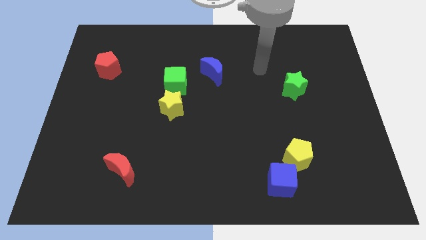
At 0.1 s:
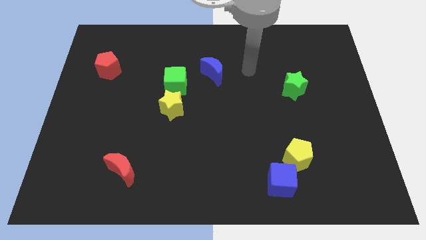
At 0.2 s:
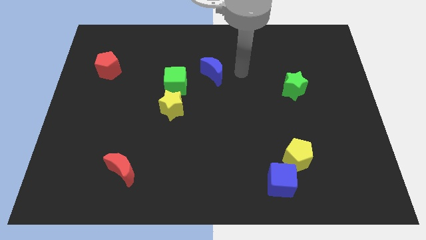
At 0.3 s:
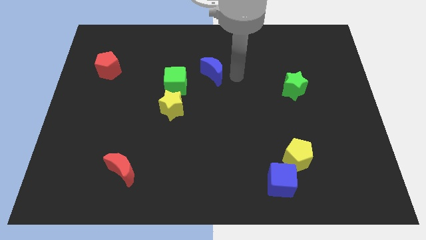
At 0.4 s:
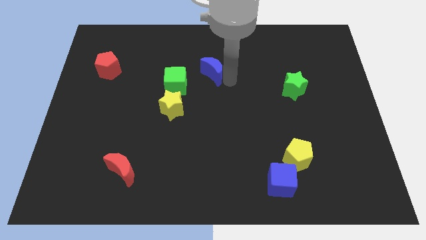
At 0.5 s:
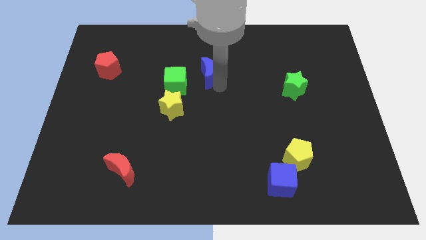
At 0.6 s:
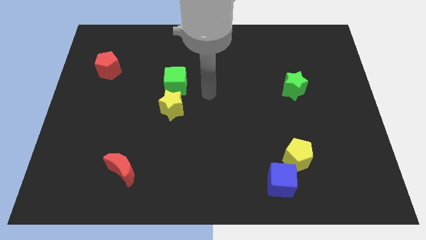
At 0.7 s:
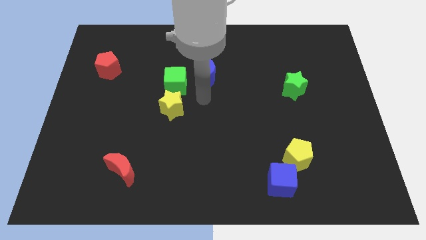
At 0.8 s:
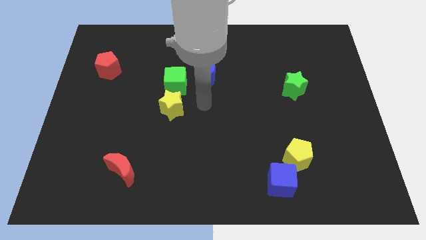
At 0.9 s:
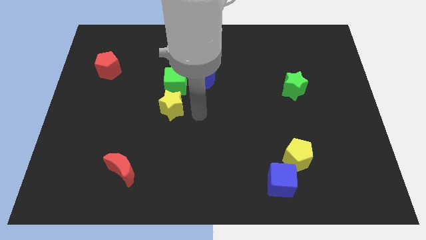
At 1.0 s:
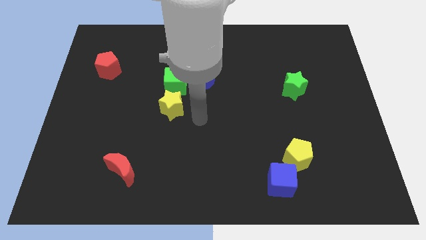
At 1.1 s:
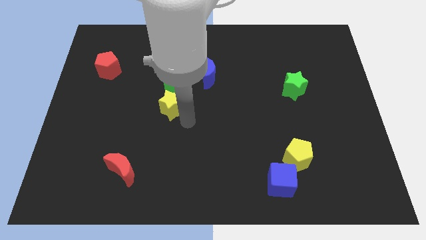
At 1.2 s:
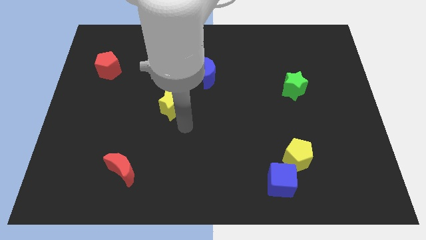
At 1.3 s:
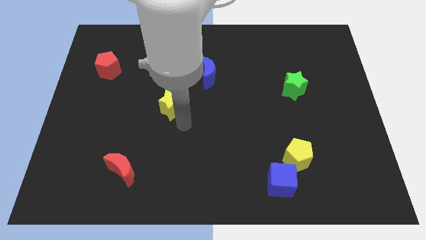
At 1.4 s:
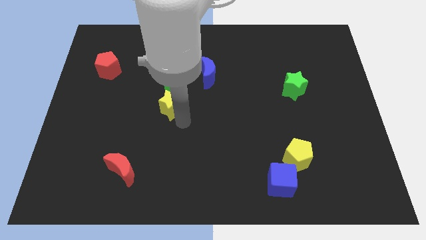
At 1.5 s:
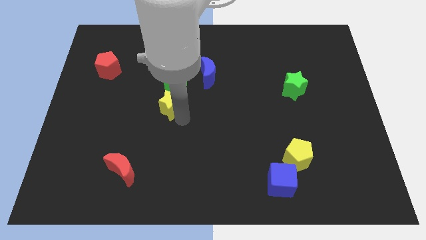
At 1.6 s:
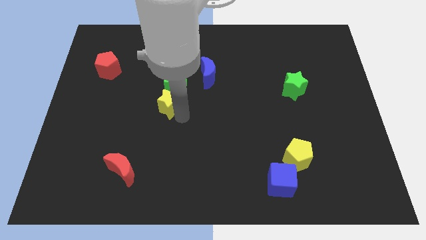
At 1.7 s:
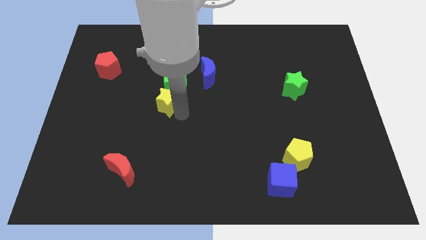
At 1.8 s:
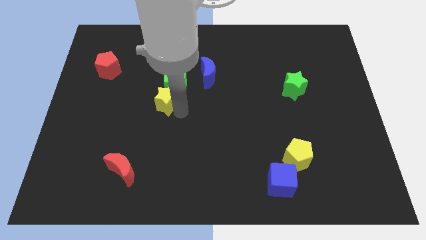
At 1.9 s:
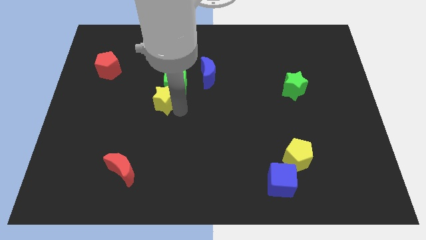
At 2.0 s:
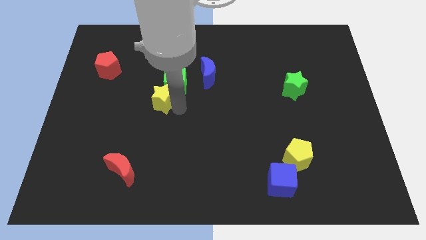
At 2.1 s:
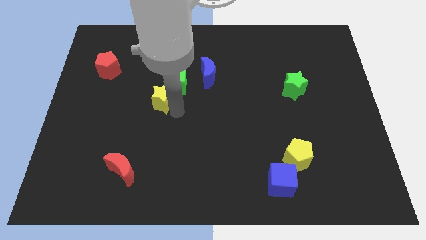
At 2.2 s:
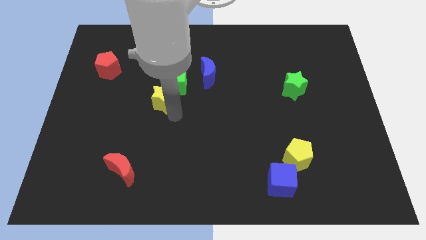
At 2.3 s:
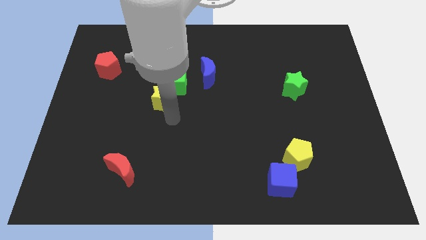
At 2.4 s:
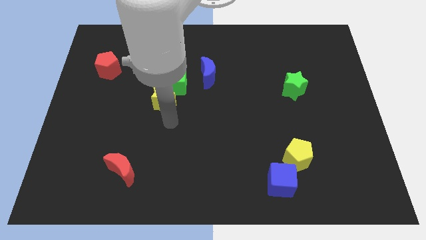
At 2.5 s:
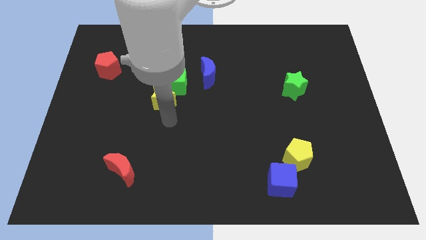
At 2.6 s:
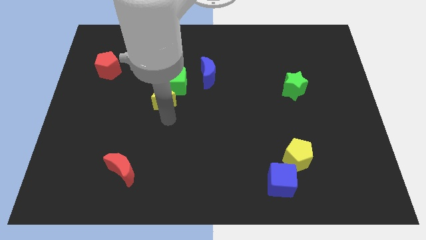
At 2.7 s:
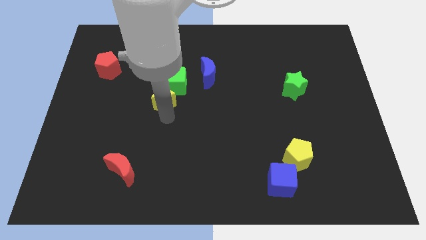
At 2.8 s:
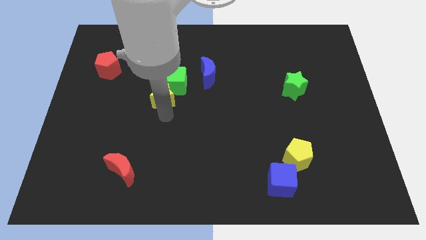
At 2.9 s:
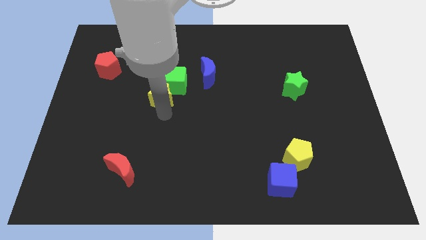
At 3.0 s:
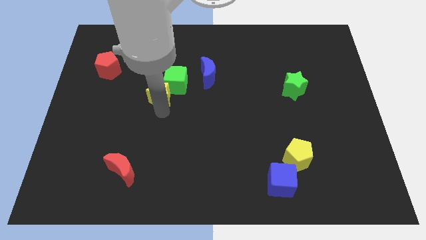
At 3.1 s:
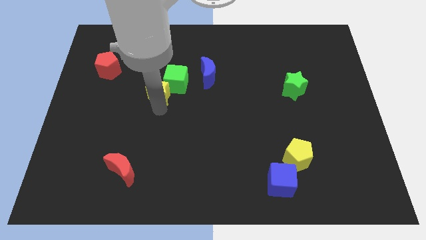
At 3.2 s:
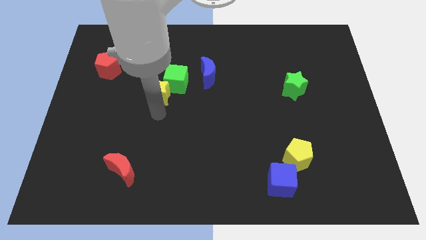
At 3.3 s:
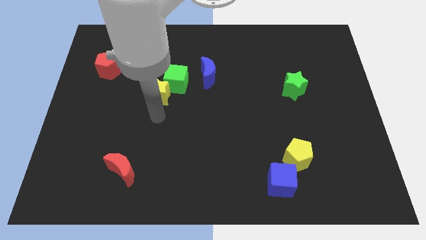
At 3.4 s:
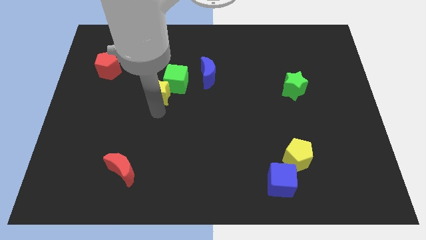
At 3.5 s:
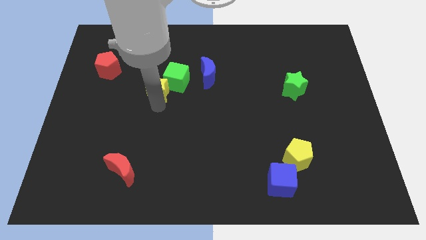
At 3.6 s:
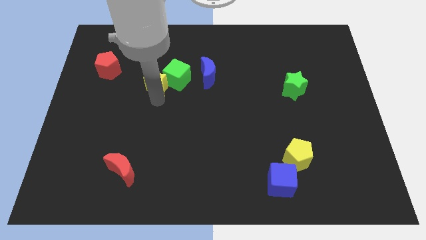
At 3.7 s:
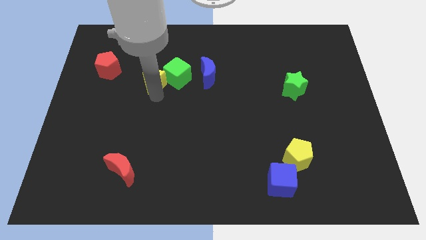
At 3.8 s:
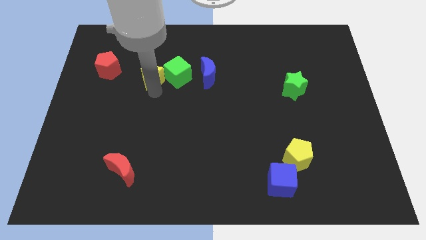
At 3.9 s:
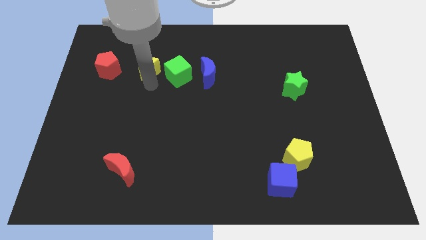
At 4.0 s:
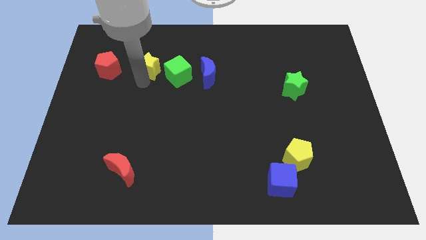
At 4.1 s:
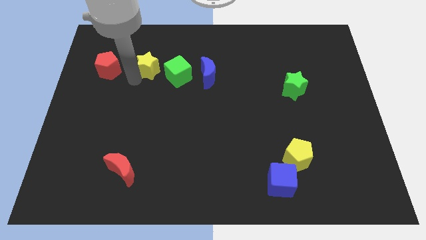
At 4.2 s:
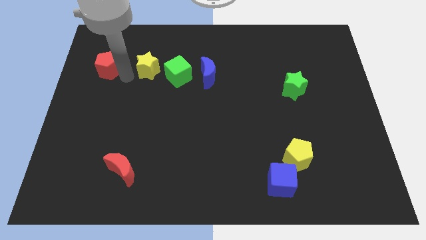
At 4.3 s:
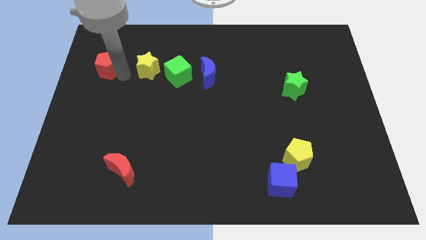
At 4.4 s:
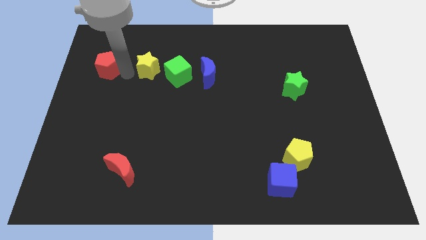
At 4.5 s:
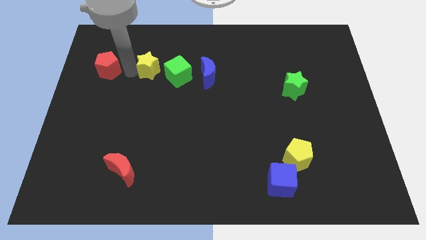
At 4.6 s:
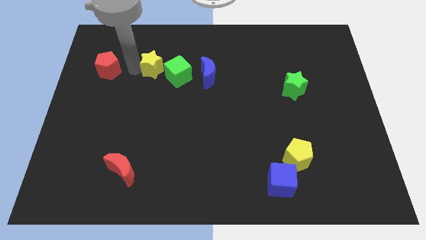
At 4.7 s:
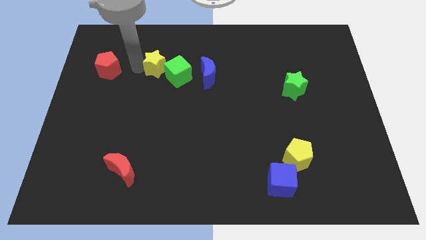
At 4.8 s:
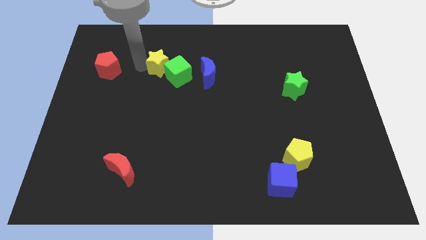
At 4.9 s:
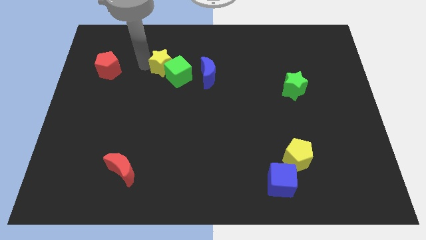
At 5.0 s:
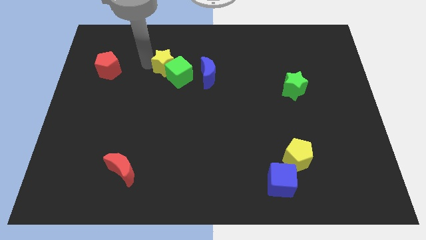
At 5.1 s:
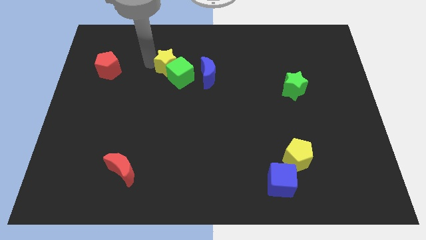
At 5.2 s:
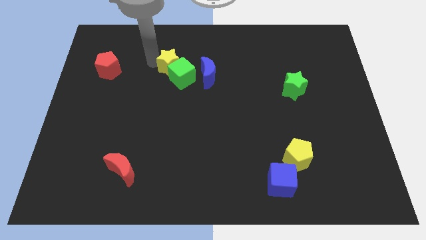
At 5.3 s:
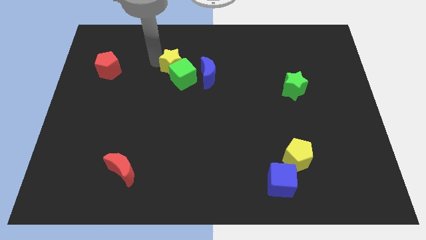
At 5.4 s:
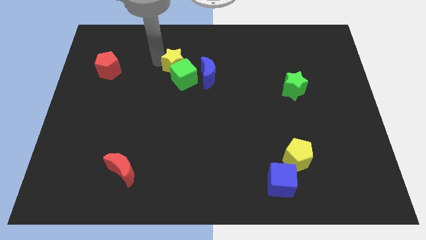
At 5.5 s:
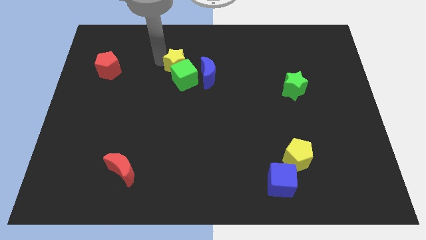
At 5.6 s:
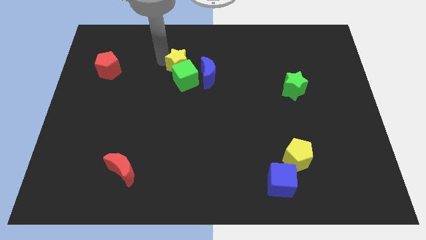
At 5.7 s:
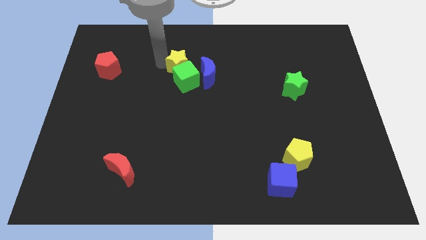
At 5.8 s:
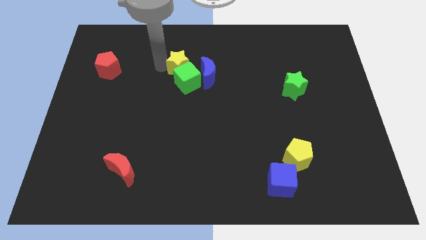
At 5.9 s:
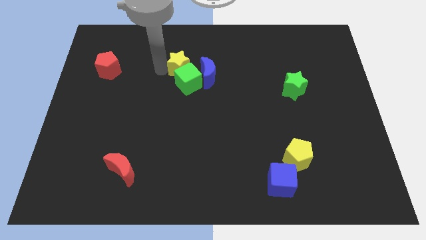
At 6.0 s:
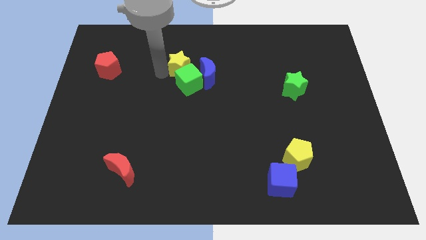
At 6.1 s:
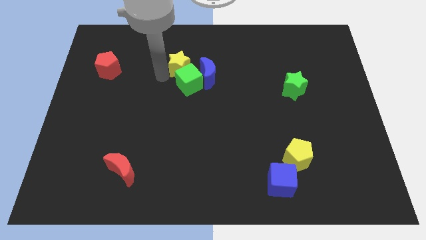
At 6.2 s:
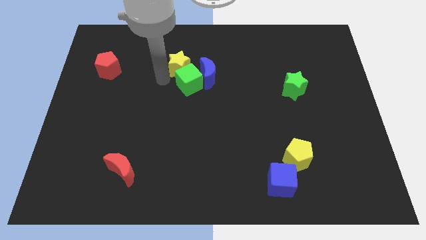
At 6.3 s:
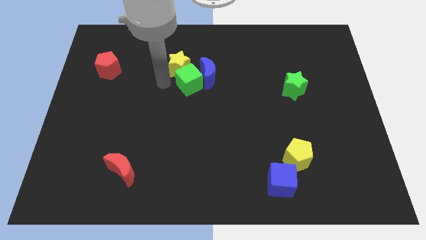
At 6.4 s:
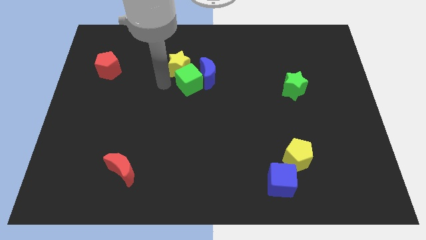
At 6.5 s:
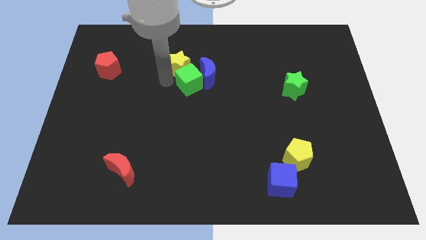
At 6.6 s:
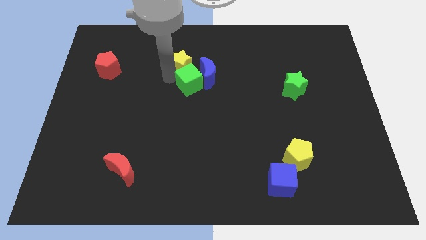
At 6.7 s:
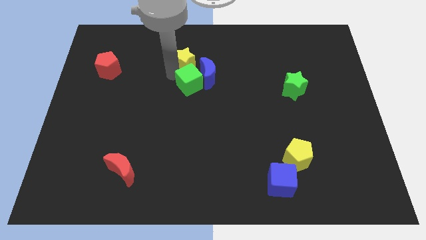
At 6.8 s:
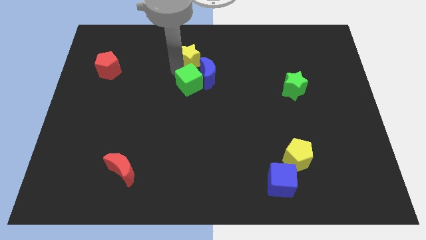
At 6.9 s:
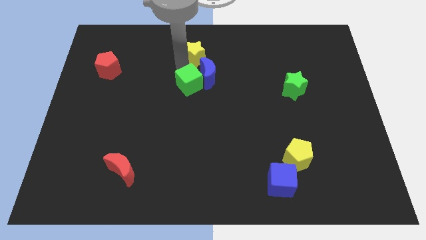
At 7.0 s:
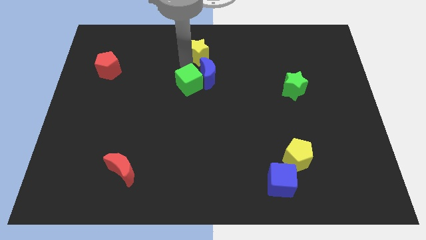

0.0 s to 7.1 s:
push the yellow star to the top
